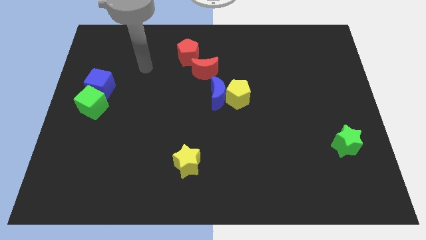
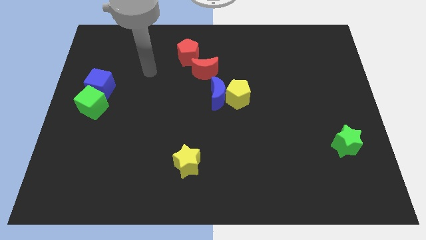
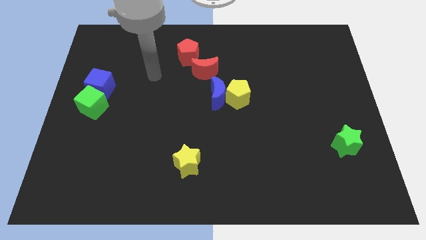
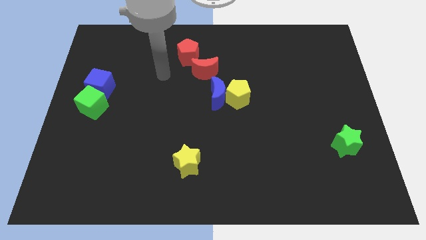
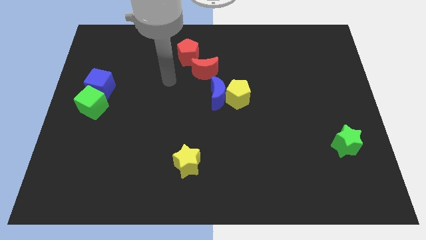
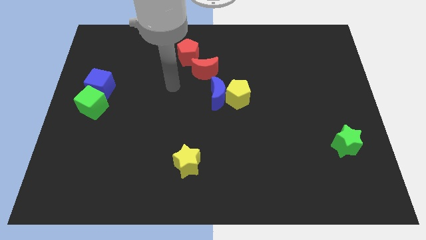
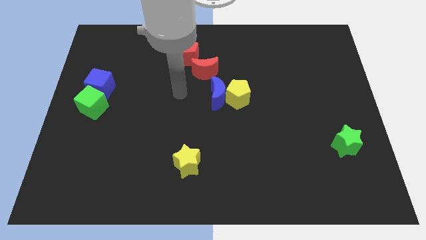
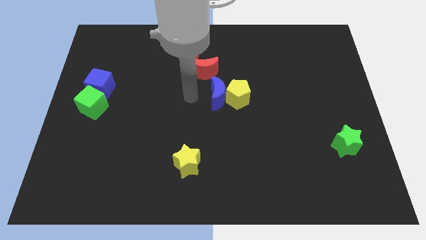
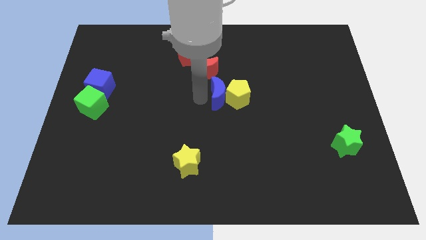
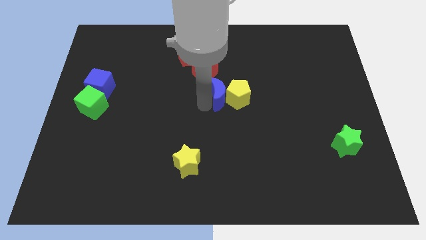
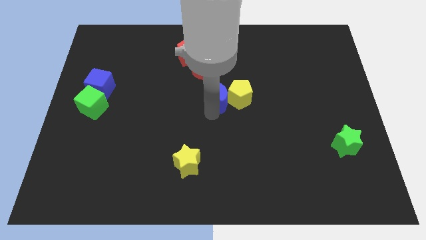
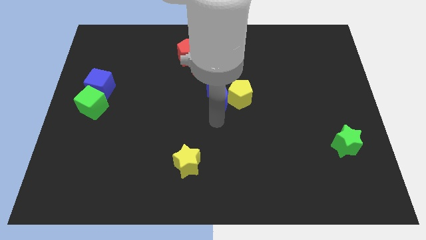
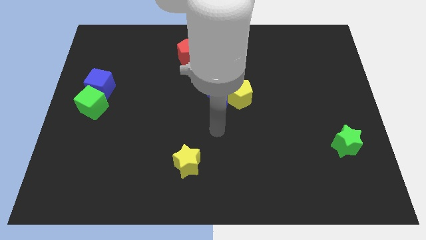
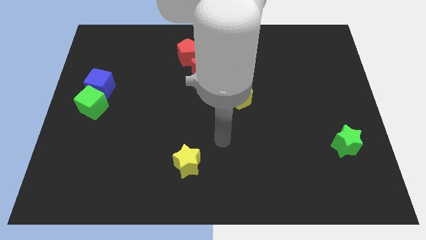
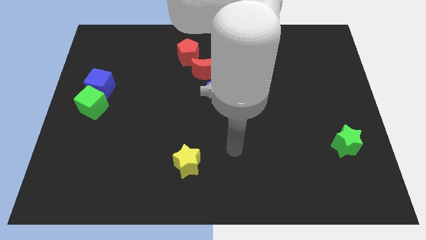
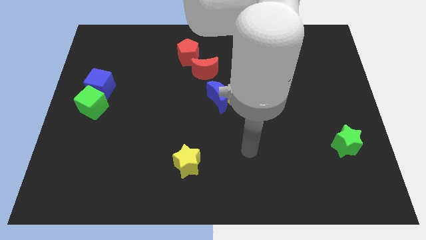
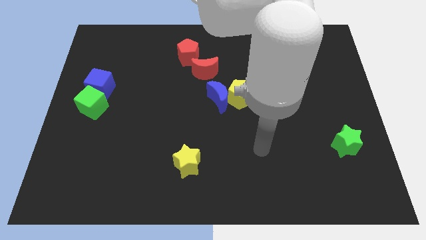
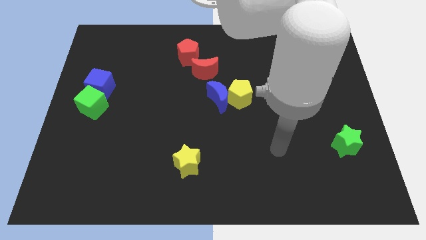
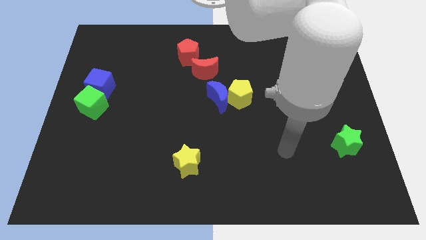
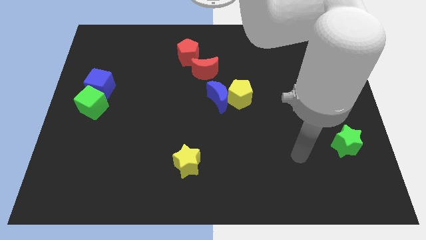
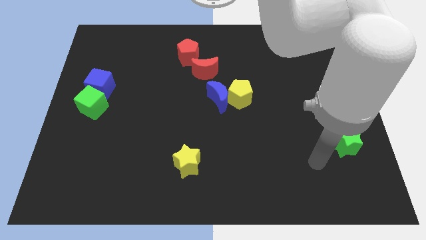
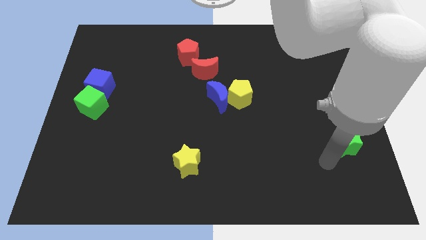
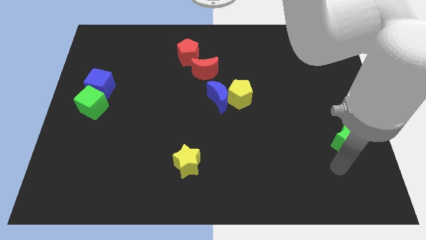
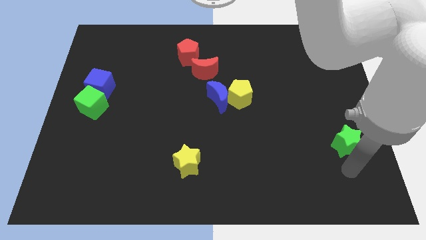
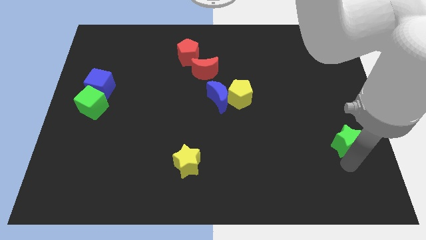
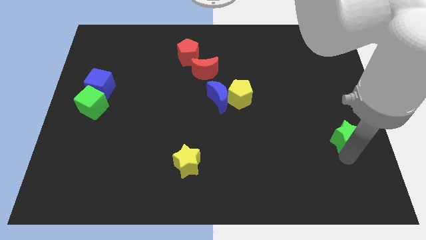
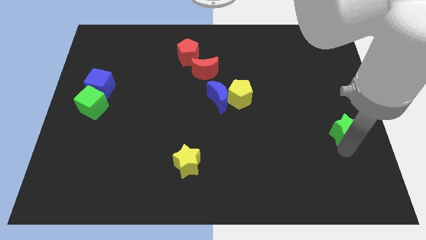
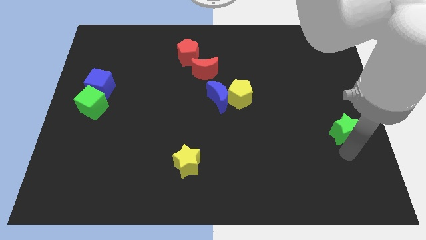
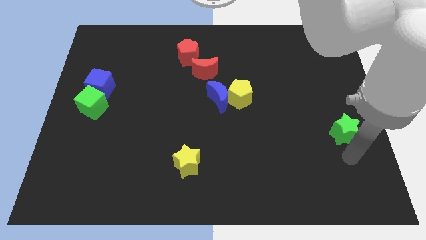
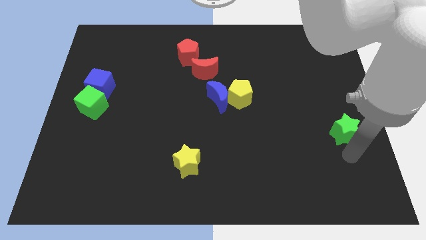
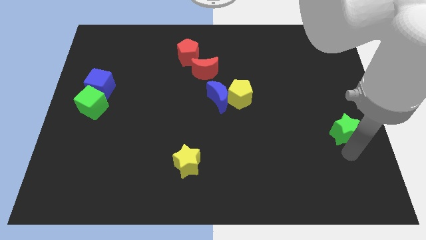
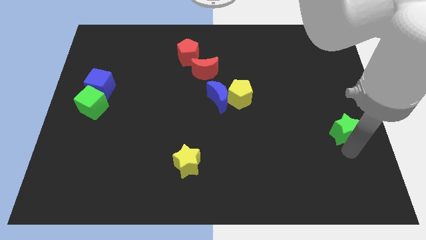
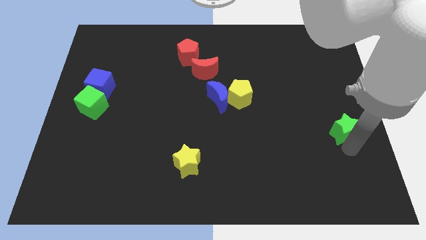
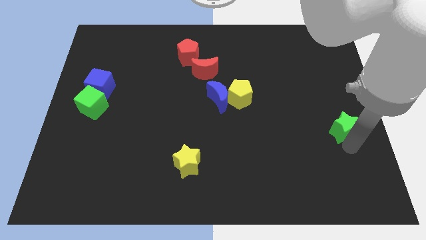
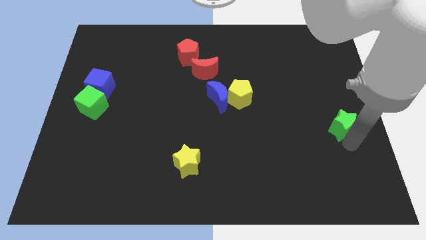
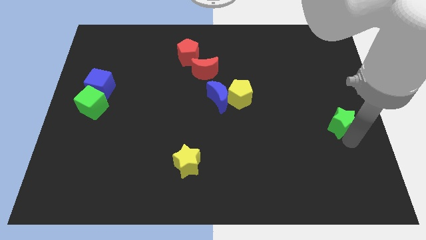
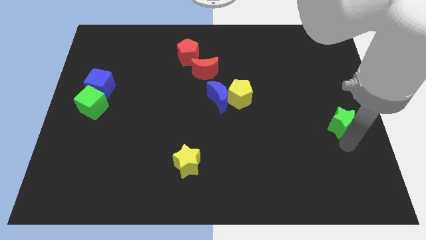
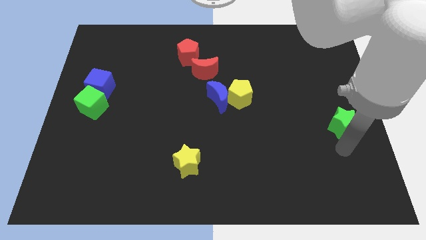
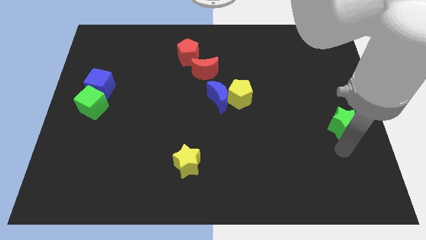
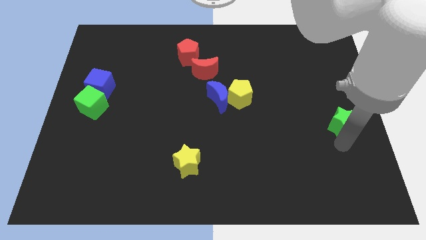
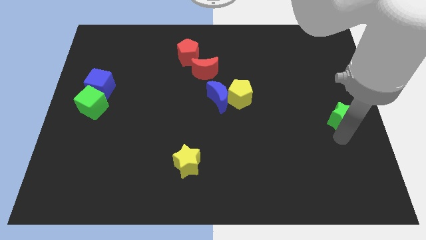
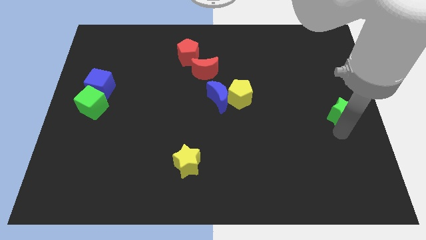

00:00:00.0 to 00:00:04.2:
slide the green star up a little

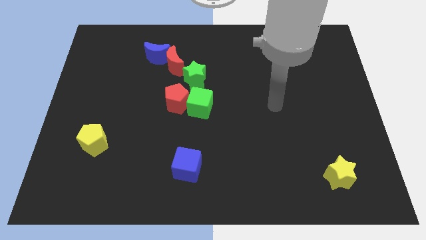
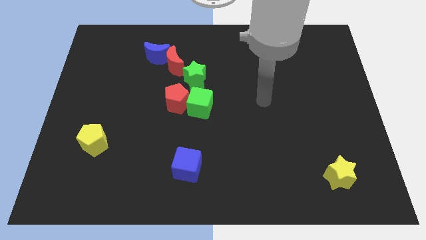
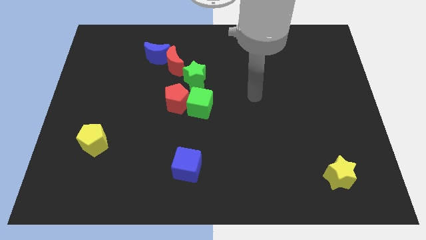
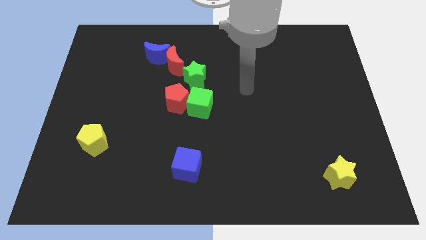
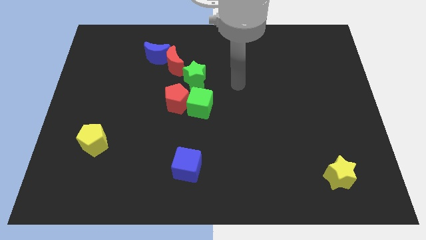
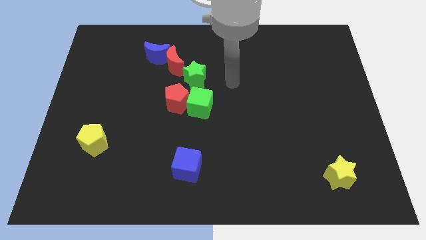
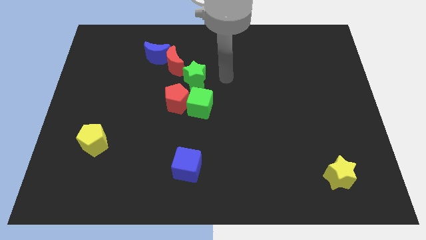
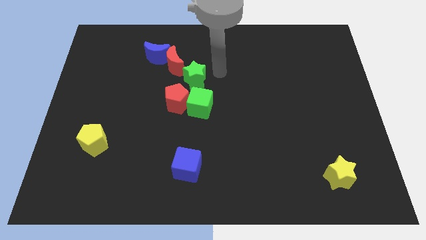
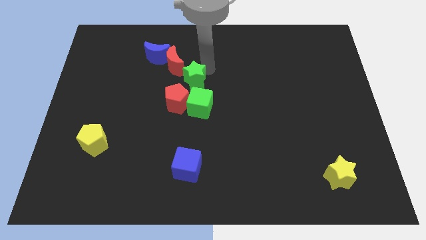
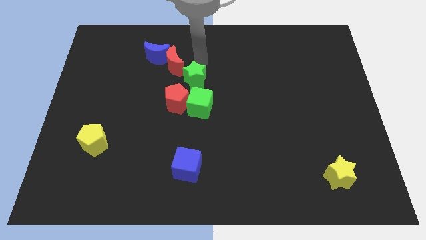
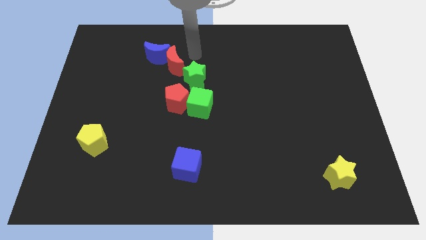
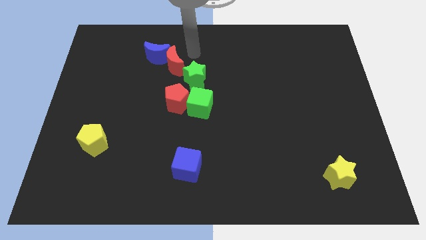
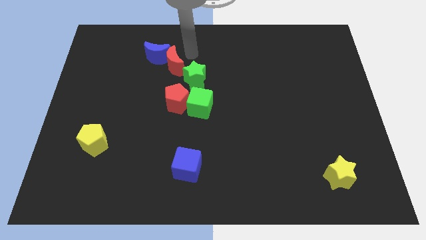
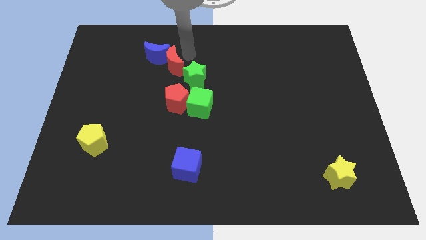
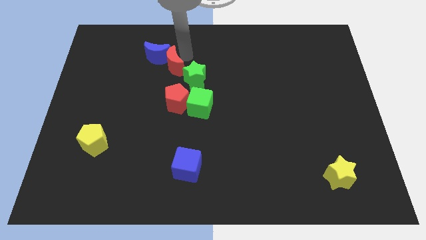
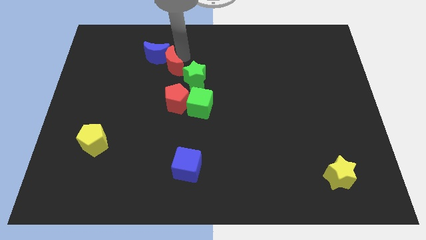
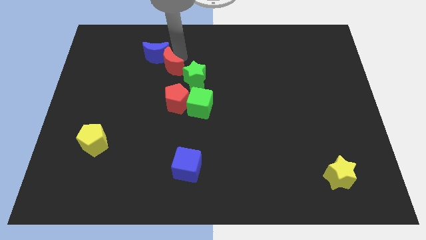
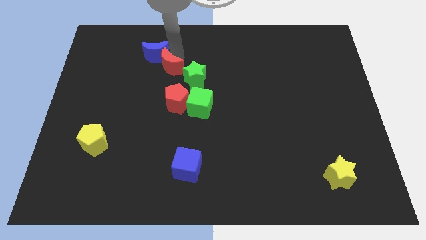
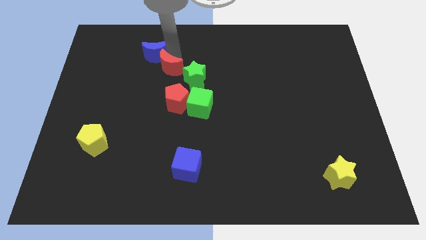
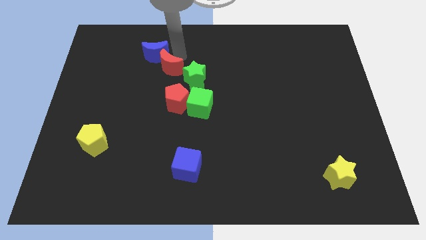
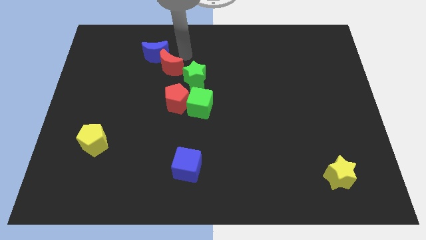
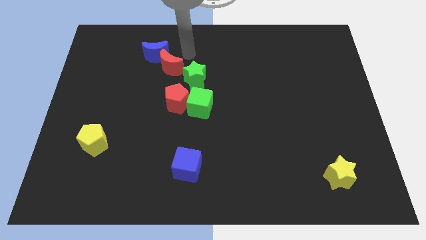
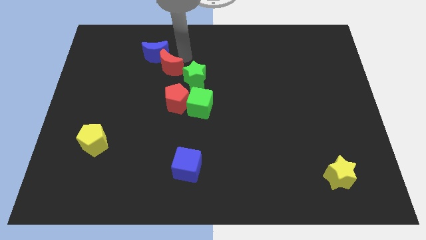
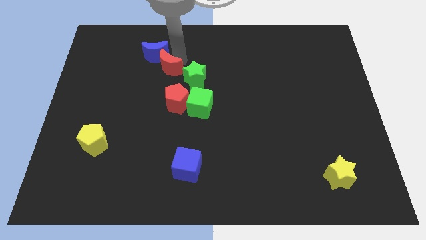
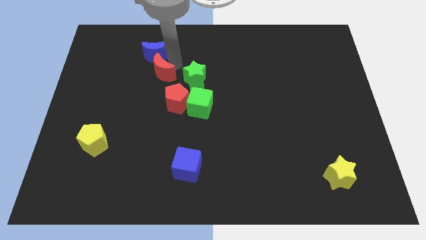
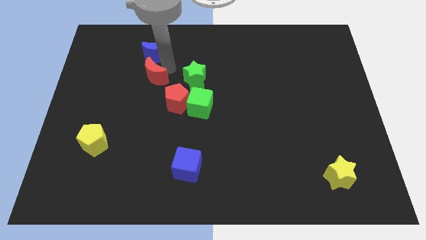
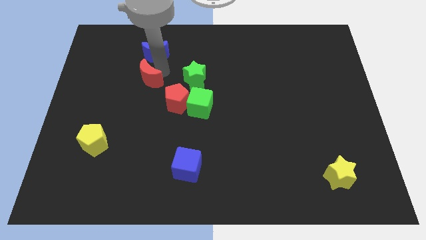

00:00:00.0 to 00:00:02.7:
move the red moon a bit downwards and then to the left

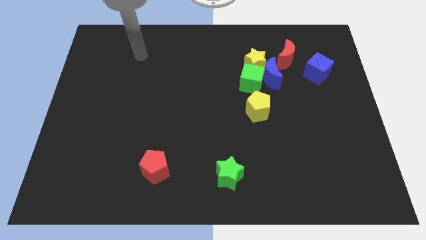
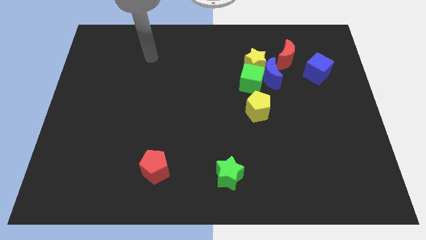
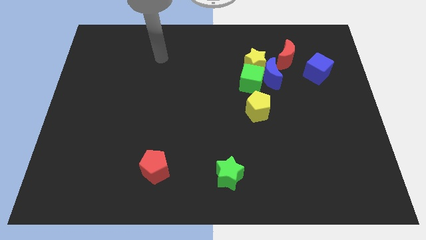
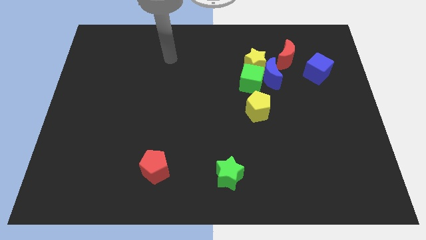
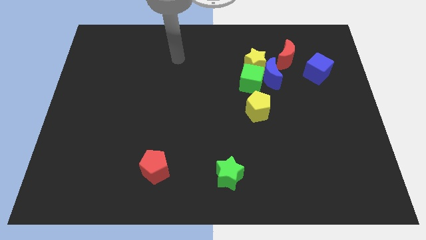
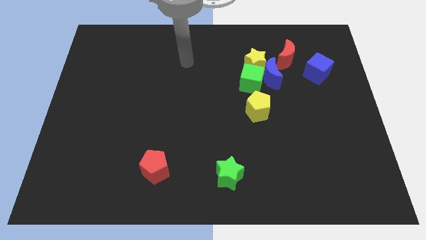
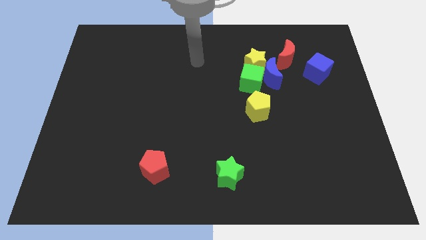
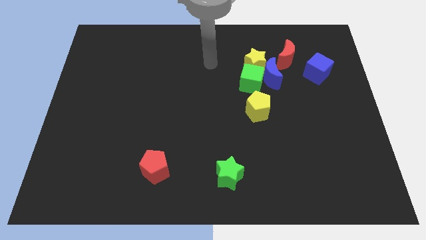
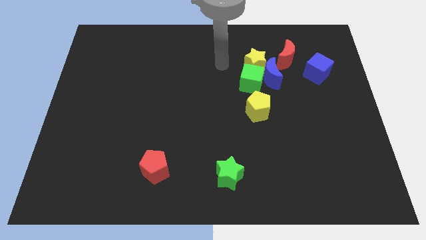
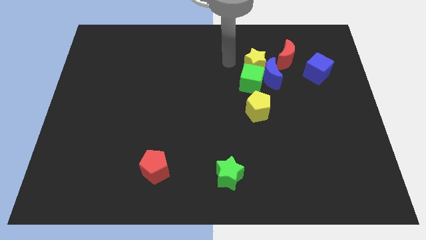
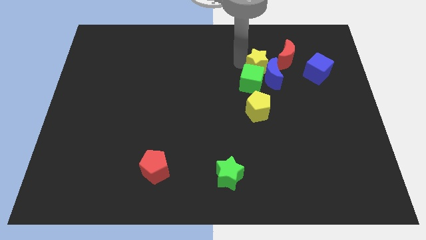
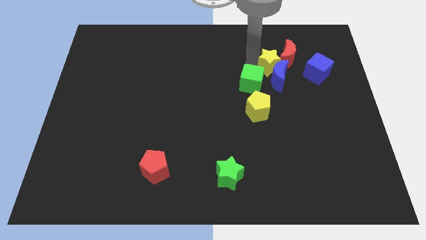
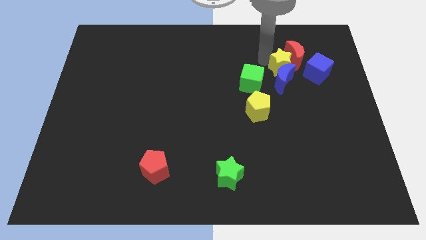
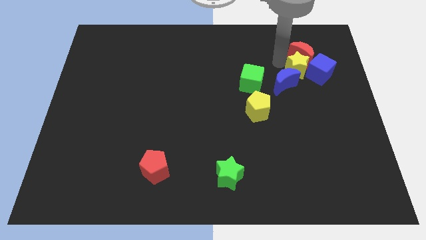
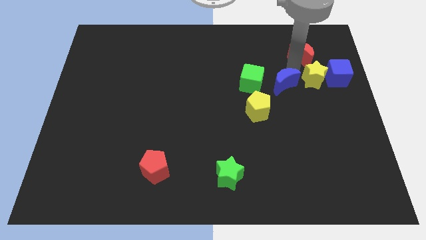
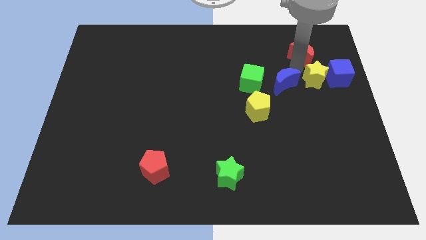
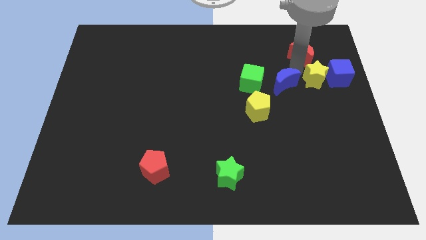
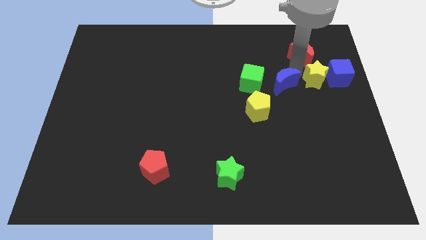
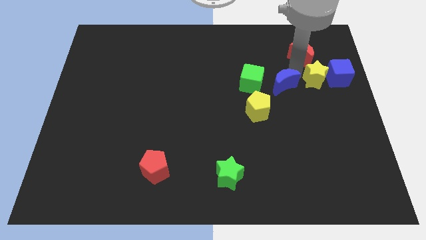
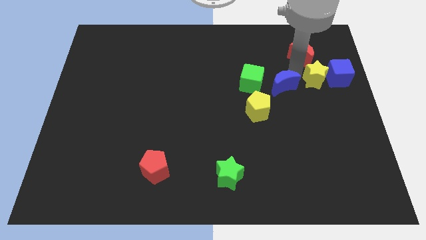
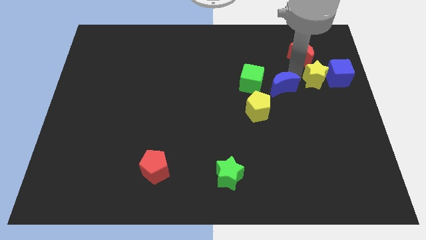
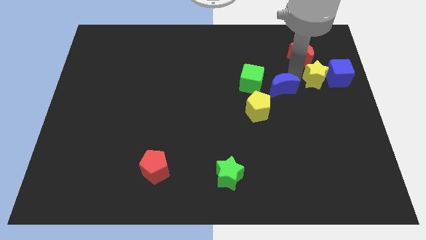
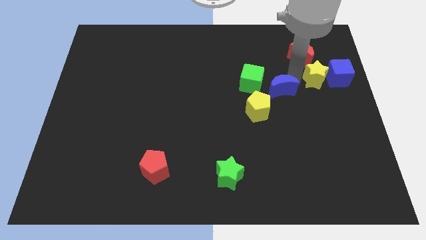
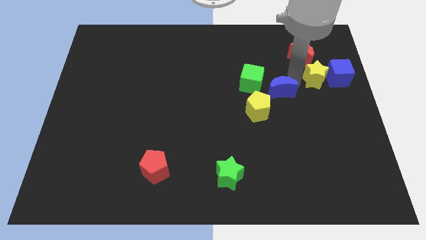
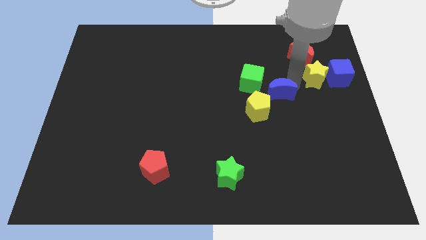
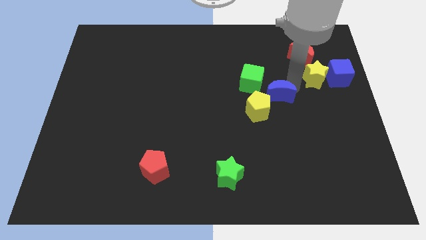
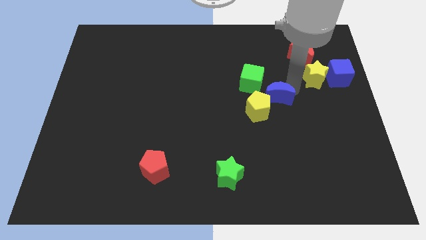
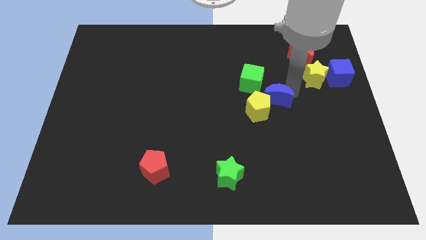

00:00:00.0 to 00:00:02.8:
move the blue moon down a little
